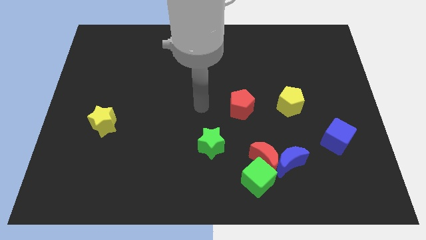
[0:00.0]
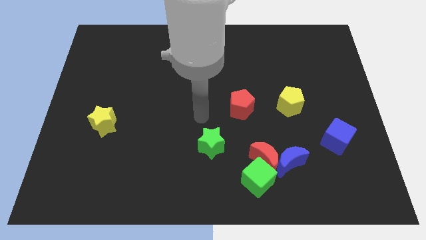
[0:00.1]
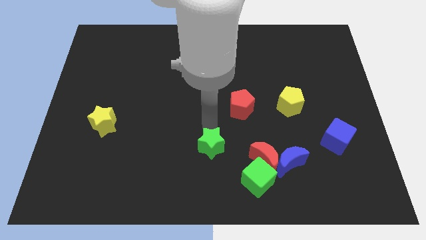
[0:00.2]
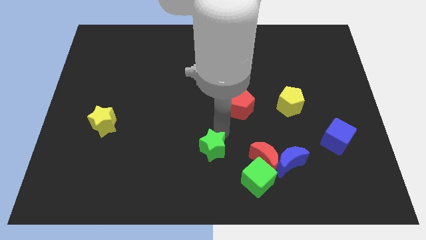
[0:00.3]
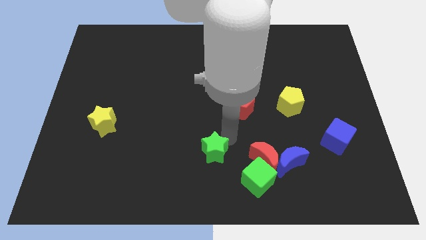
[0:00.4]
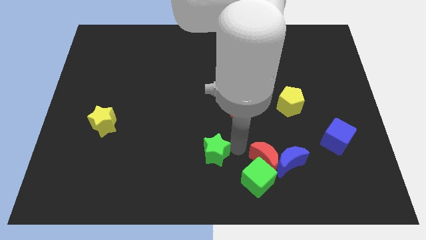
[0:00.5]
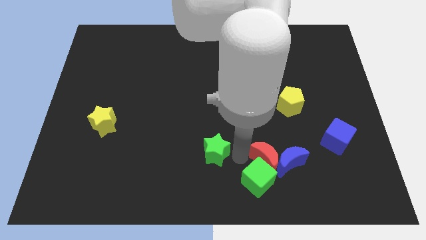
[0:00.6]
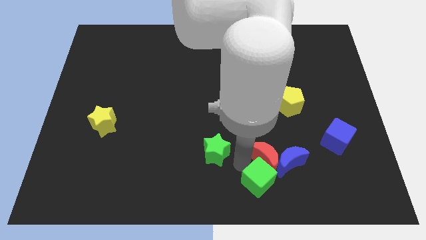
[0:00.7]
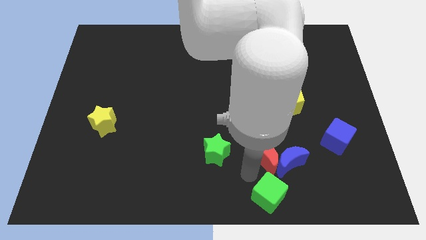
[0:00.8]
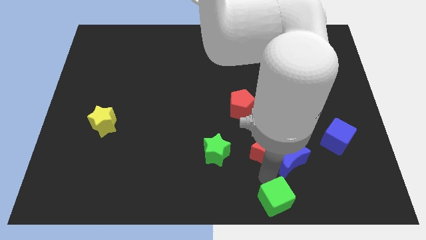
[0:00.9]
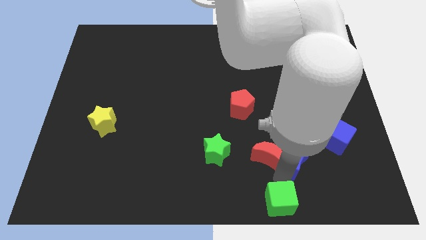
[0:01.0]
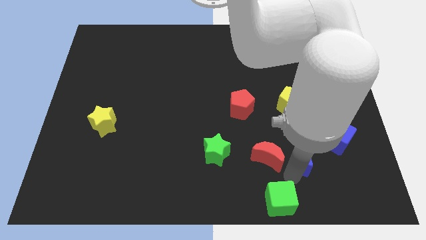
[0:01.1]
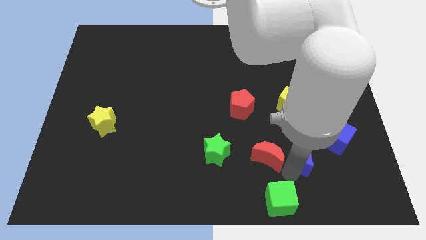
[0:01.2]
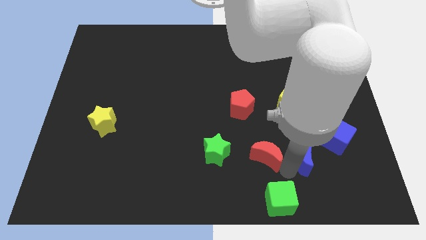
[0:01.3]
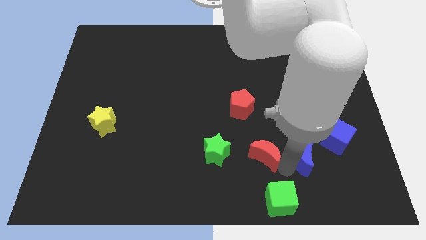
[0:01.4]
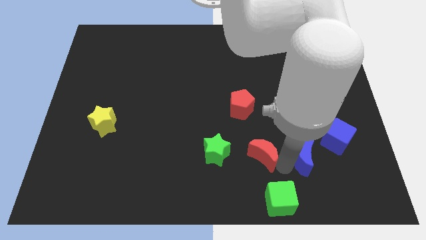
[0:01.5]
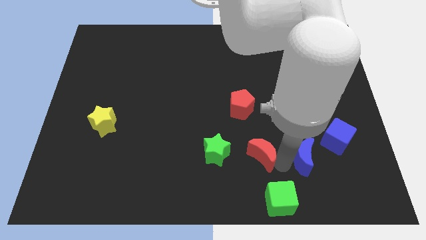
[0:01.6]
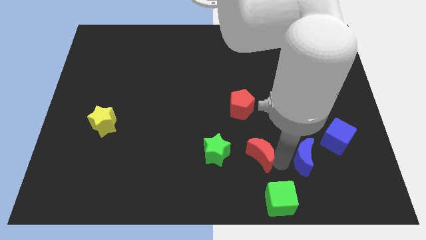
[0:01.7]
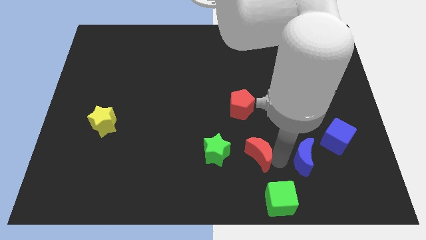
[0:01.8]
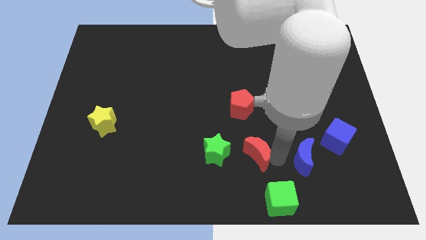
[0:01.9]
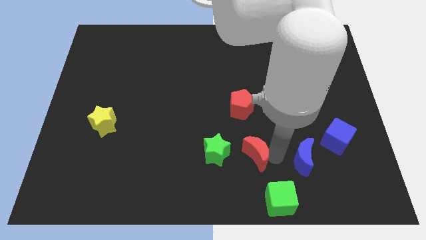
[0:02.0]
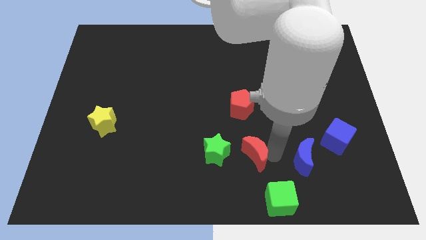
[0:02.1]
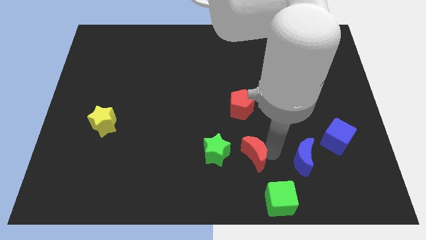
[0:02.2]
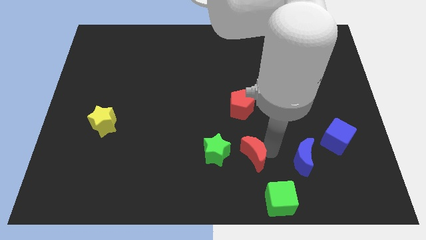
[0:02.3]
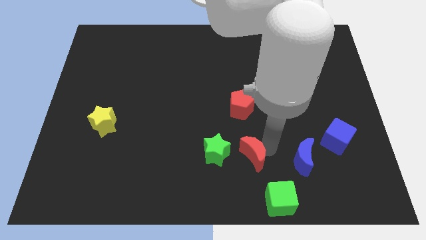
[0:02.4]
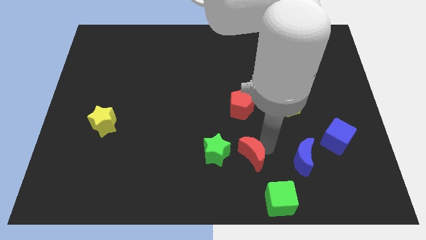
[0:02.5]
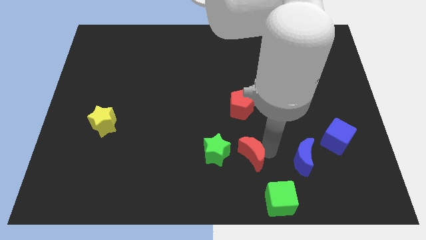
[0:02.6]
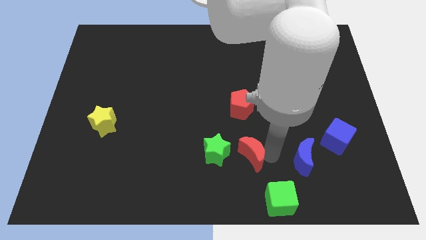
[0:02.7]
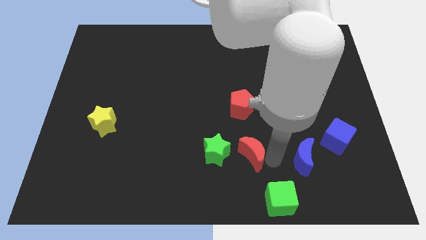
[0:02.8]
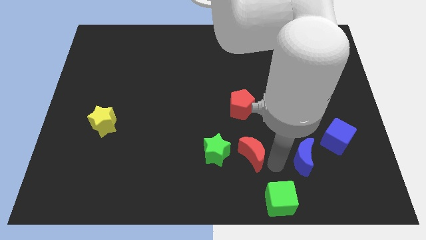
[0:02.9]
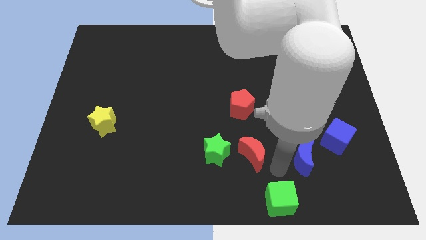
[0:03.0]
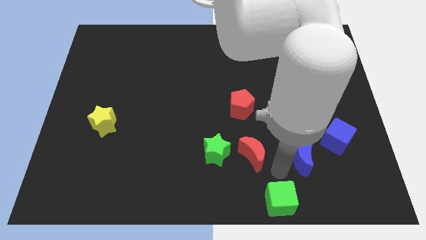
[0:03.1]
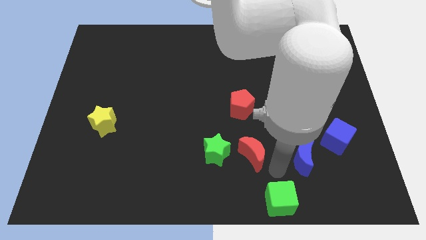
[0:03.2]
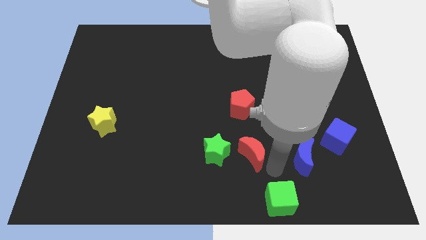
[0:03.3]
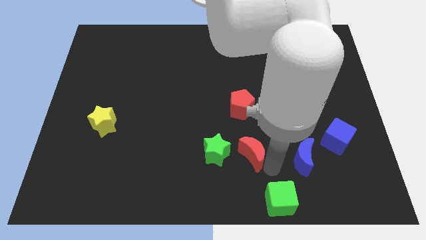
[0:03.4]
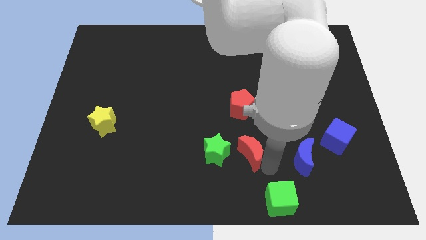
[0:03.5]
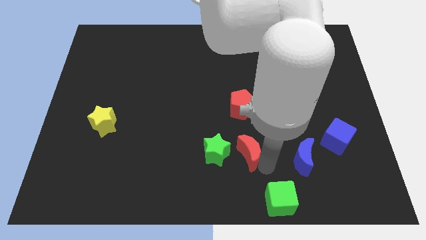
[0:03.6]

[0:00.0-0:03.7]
pull the red moon apart from the blue moon and green cube

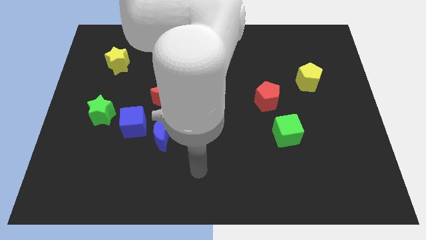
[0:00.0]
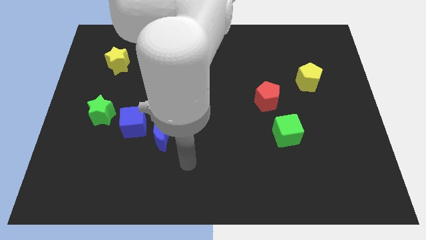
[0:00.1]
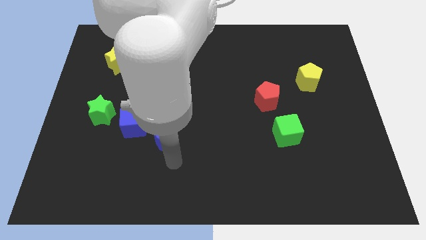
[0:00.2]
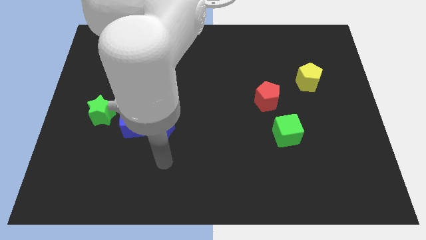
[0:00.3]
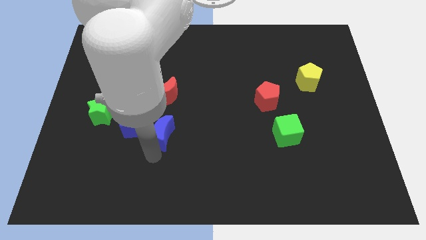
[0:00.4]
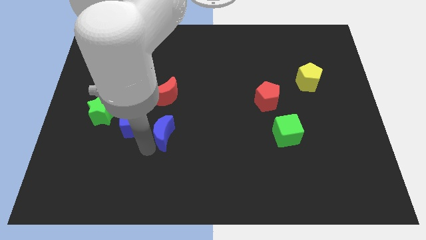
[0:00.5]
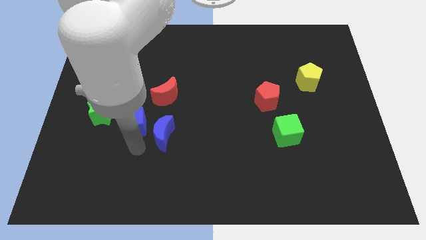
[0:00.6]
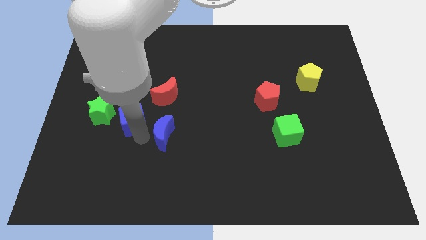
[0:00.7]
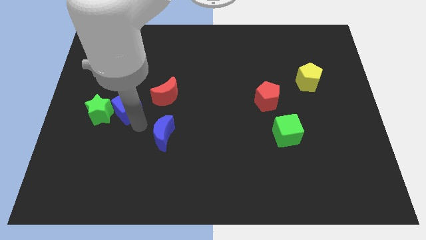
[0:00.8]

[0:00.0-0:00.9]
separate the blue moon from the blue cube

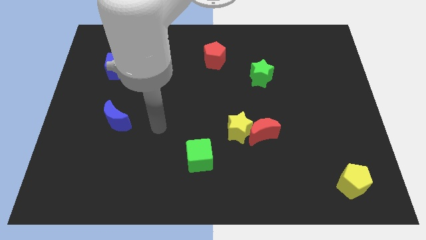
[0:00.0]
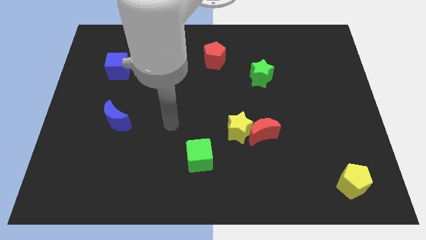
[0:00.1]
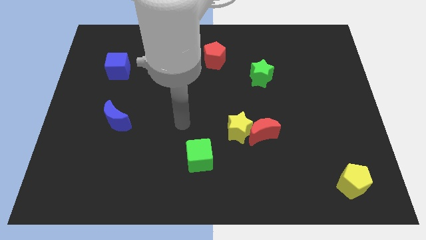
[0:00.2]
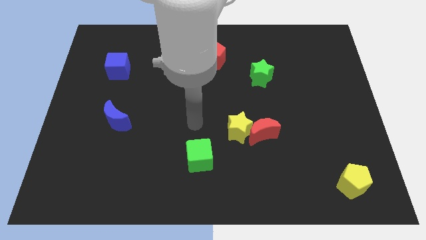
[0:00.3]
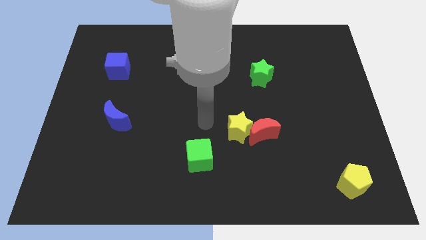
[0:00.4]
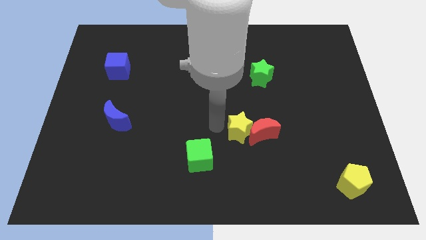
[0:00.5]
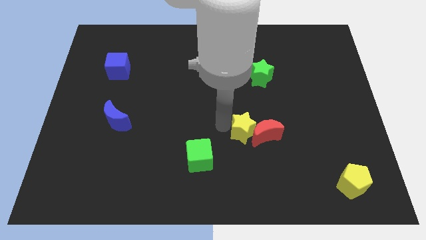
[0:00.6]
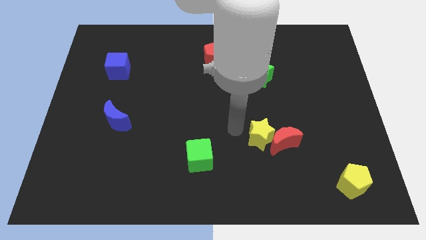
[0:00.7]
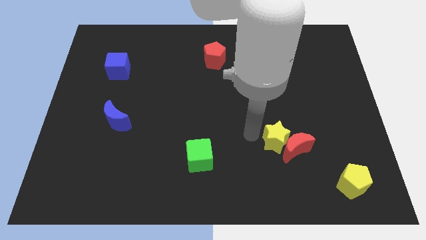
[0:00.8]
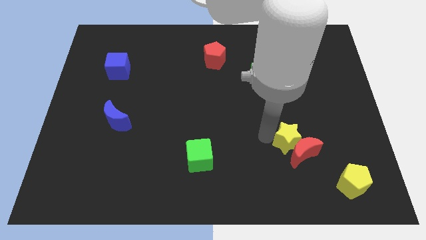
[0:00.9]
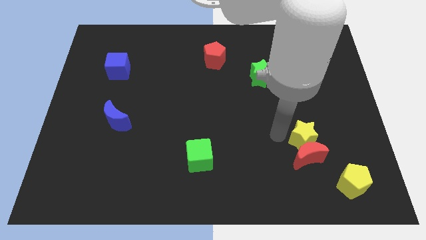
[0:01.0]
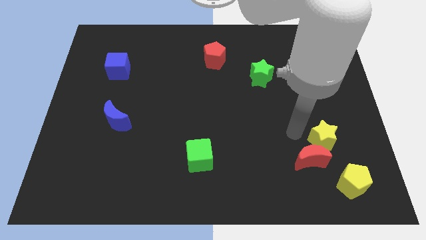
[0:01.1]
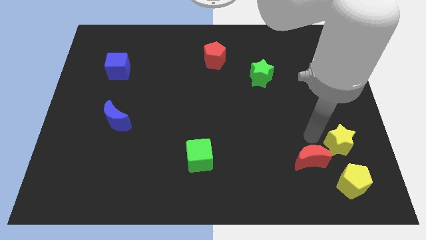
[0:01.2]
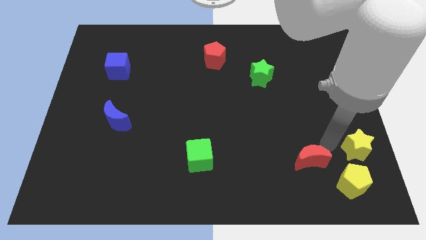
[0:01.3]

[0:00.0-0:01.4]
move the red moon away from the yellow star

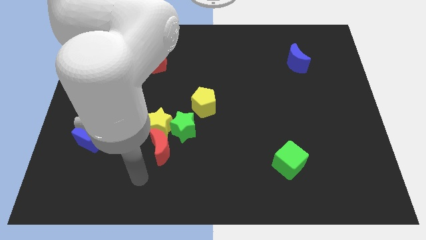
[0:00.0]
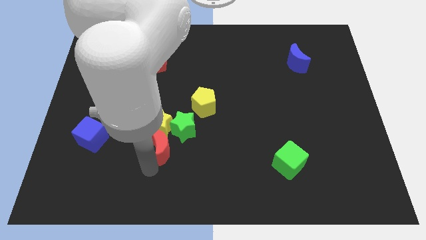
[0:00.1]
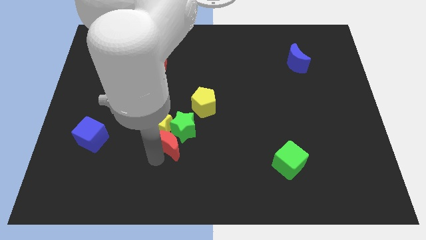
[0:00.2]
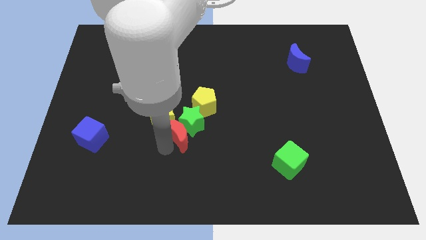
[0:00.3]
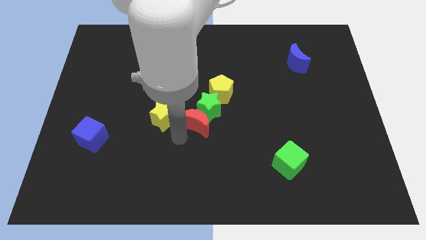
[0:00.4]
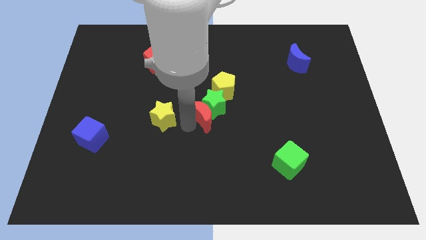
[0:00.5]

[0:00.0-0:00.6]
move the yellow star away from the green star and red moon

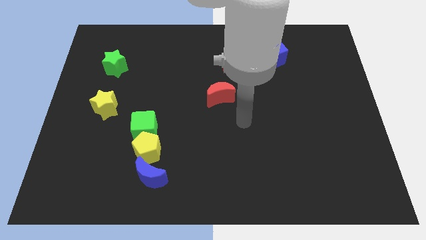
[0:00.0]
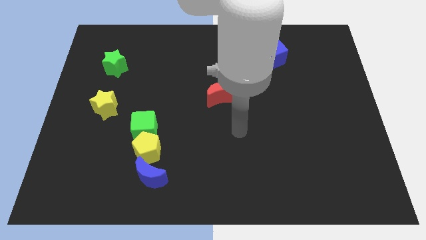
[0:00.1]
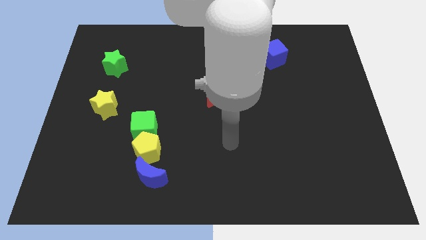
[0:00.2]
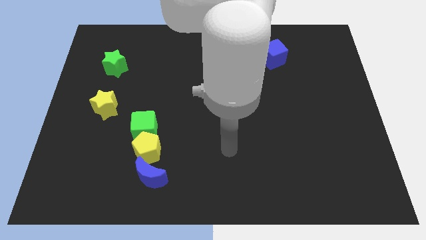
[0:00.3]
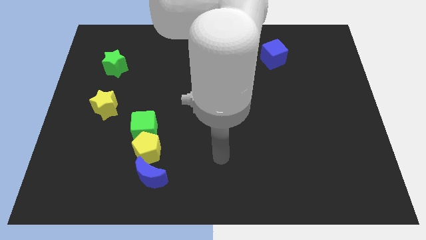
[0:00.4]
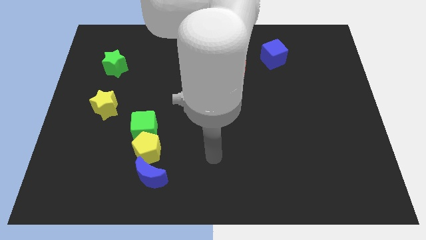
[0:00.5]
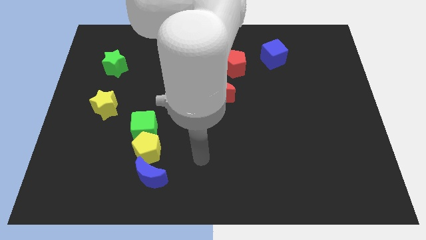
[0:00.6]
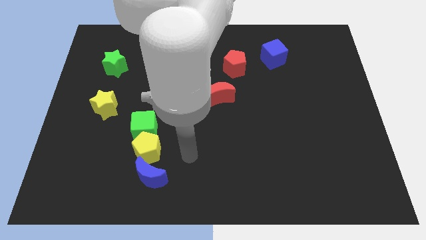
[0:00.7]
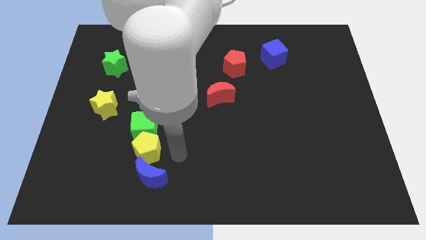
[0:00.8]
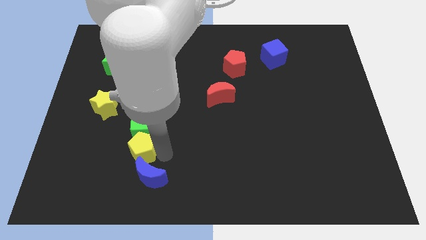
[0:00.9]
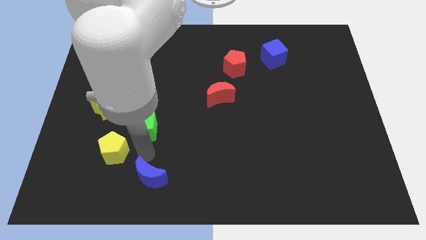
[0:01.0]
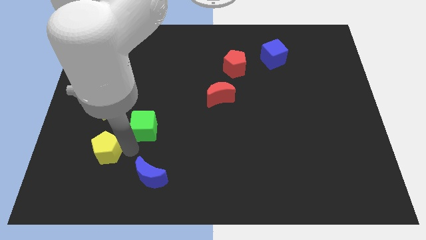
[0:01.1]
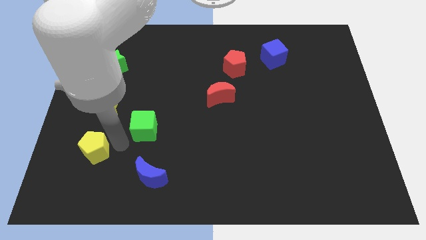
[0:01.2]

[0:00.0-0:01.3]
separate the green cube from the yellow pentagon

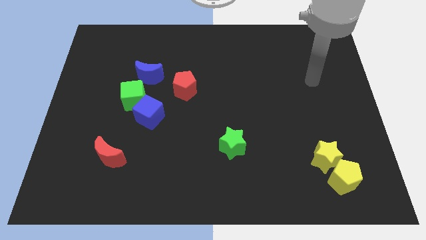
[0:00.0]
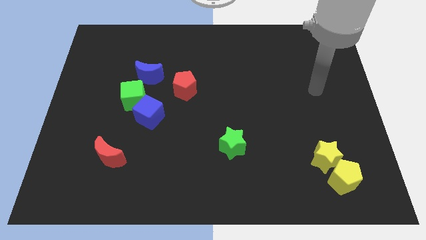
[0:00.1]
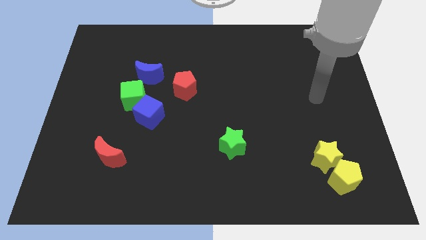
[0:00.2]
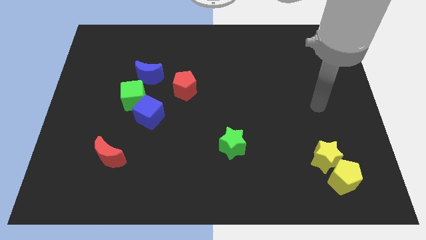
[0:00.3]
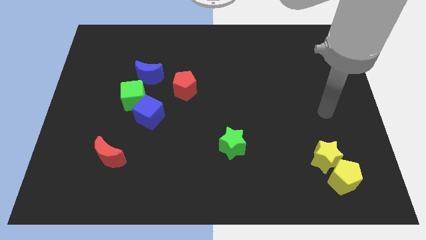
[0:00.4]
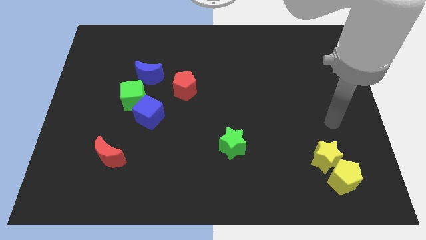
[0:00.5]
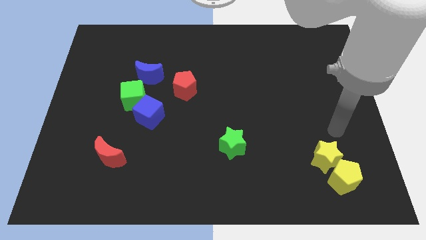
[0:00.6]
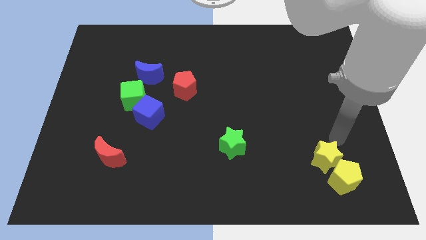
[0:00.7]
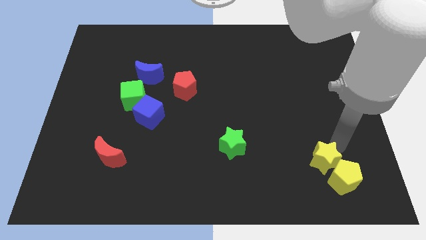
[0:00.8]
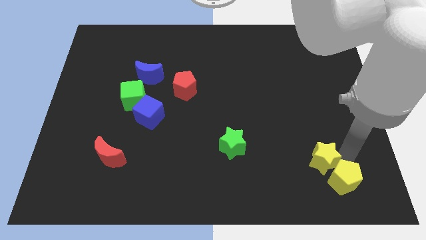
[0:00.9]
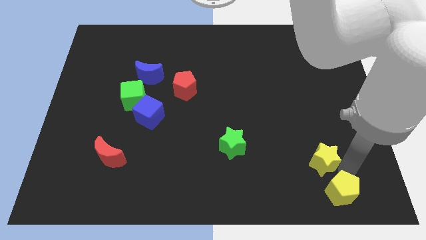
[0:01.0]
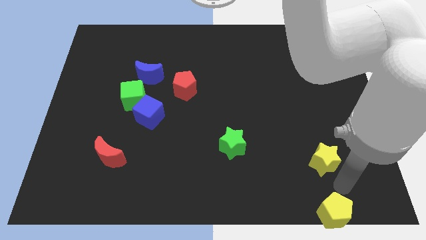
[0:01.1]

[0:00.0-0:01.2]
separate the yellow star from the yellow pentagon

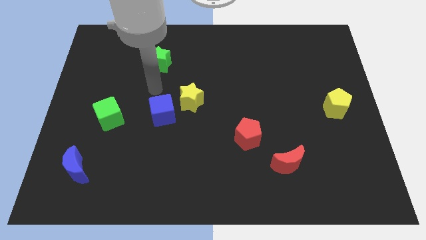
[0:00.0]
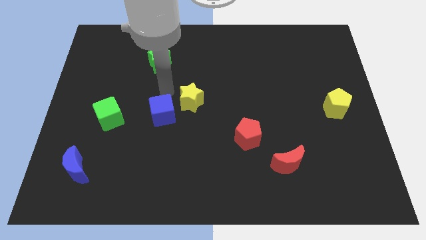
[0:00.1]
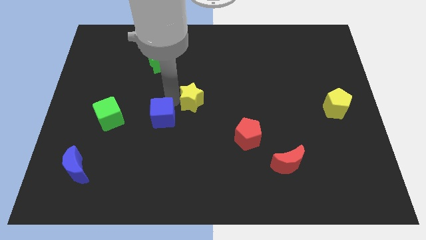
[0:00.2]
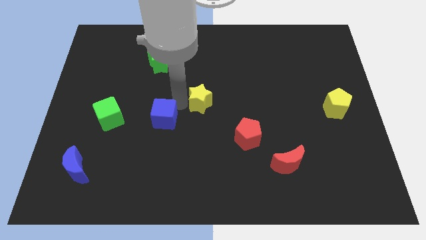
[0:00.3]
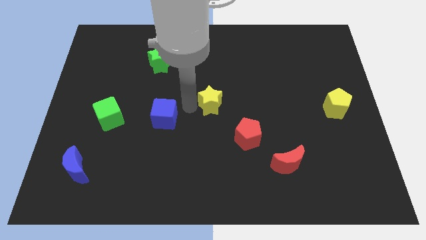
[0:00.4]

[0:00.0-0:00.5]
separate the blue cube from the yellow star
